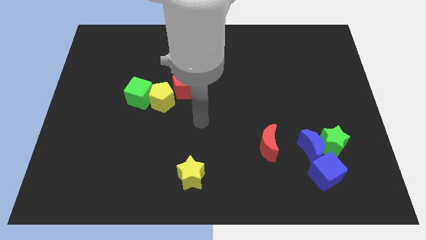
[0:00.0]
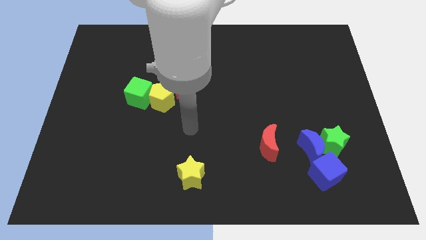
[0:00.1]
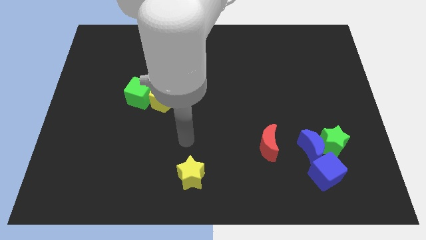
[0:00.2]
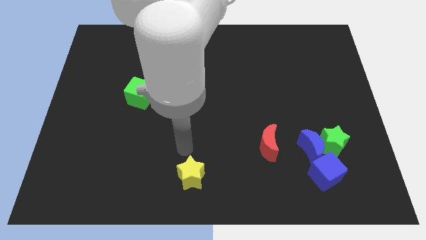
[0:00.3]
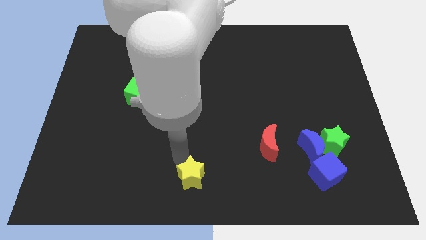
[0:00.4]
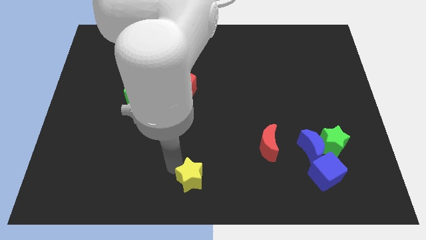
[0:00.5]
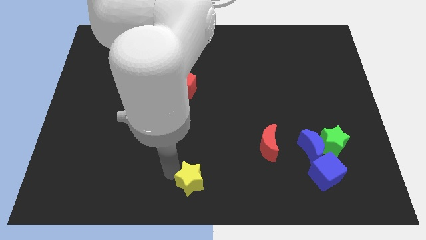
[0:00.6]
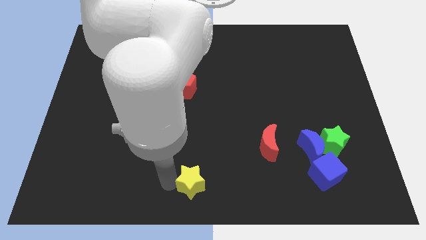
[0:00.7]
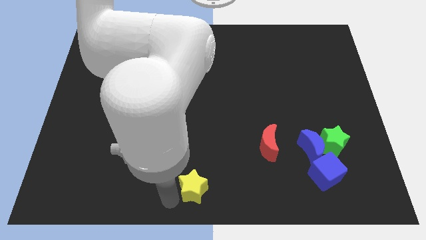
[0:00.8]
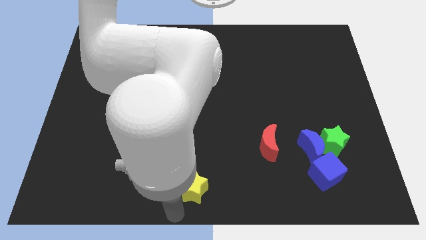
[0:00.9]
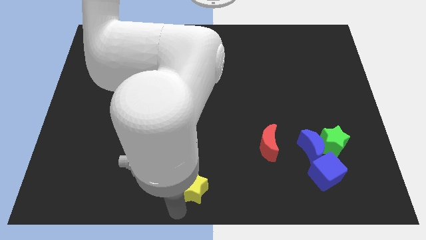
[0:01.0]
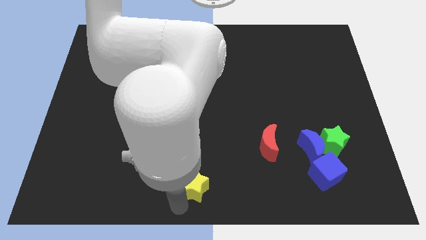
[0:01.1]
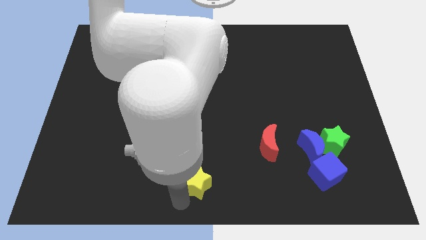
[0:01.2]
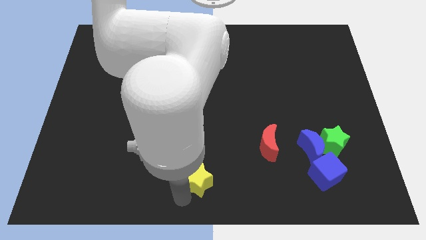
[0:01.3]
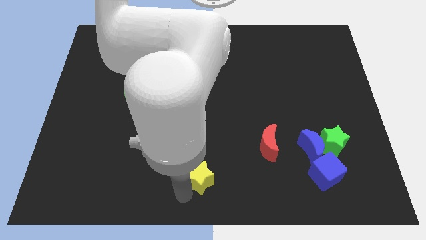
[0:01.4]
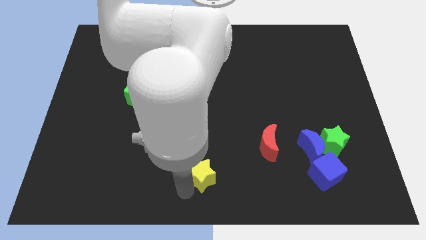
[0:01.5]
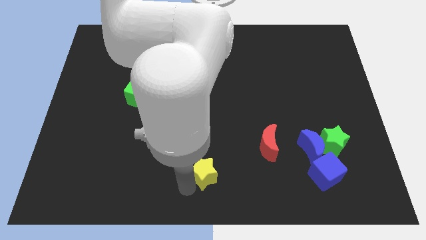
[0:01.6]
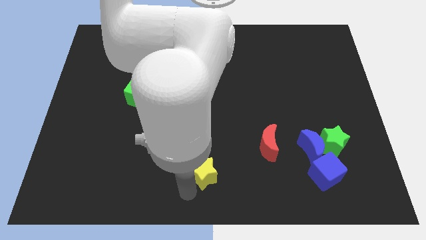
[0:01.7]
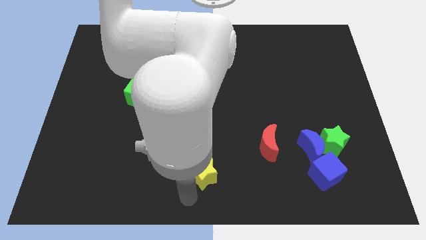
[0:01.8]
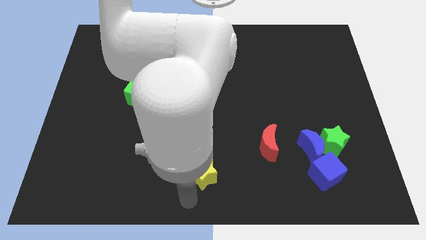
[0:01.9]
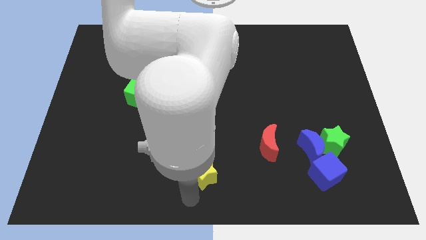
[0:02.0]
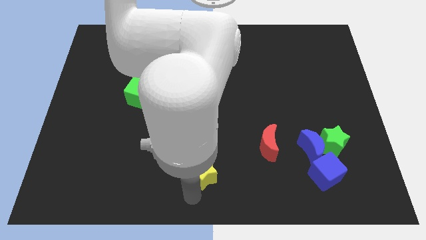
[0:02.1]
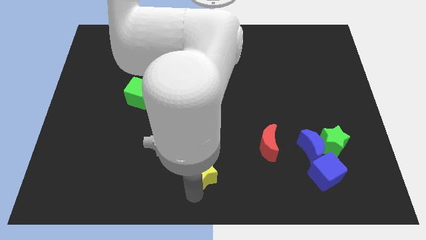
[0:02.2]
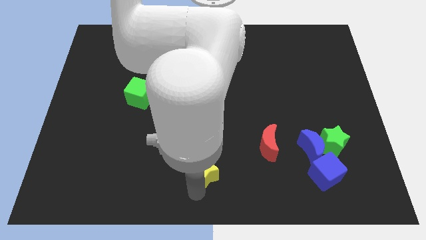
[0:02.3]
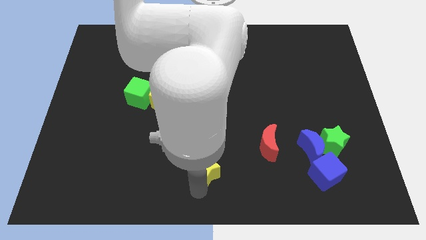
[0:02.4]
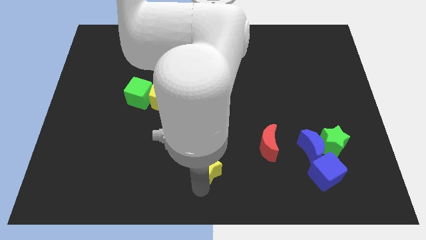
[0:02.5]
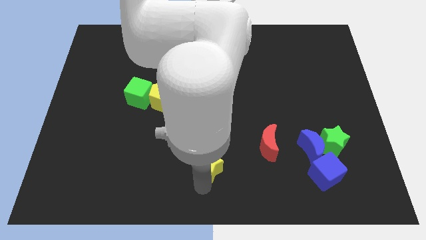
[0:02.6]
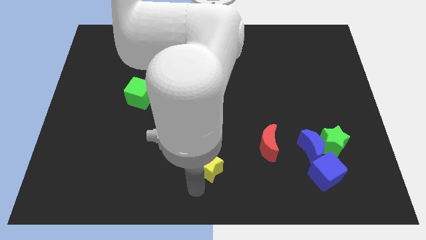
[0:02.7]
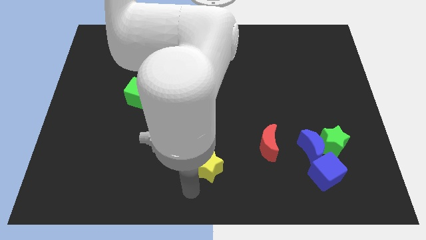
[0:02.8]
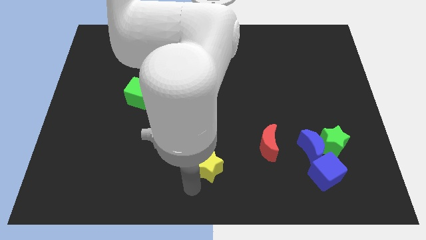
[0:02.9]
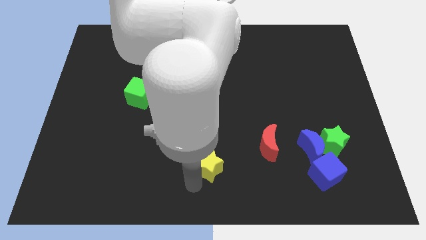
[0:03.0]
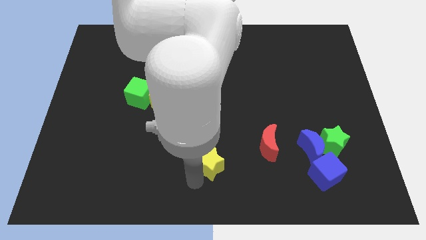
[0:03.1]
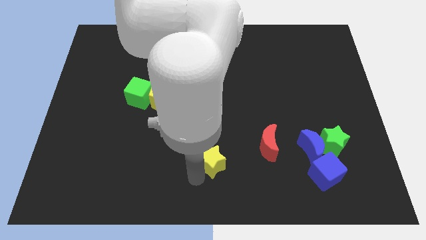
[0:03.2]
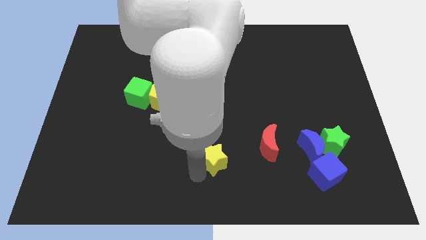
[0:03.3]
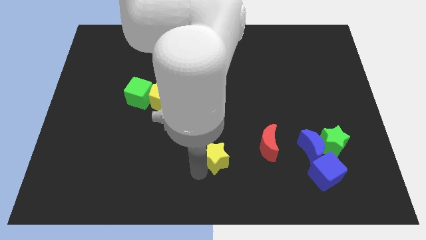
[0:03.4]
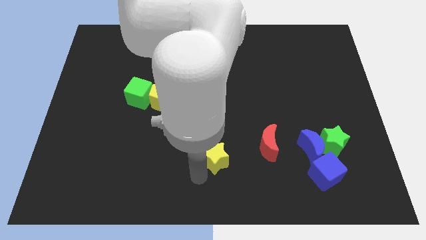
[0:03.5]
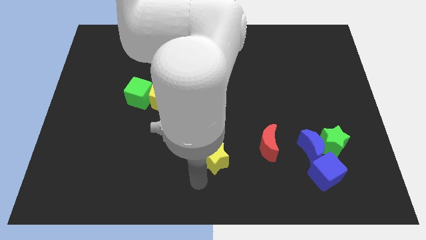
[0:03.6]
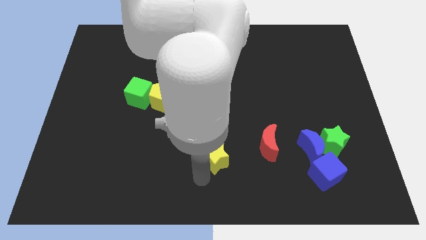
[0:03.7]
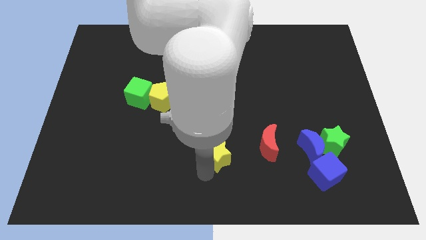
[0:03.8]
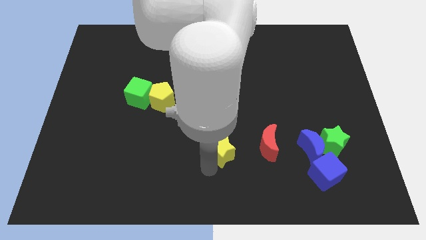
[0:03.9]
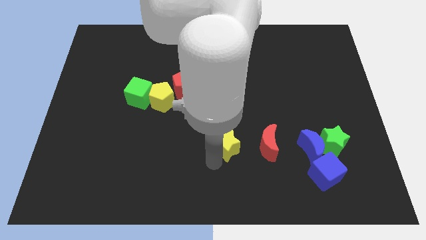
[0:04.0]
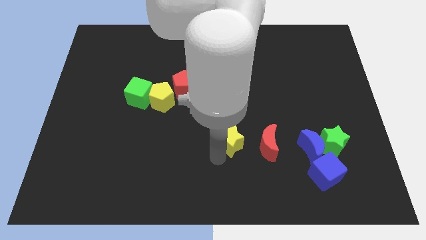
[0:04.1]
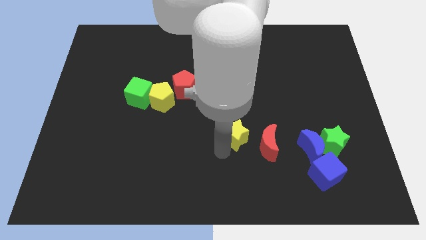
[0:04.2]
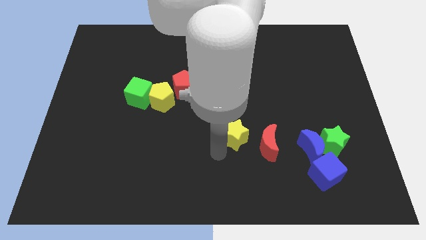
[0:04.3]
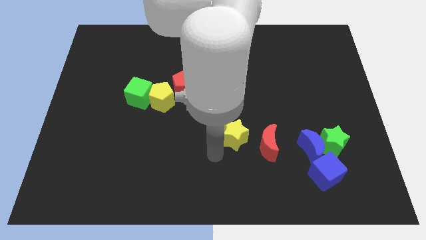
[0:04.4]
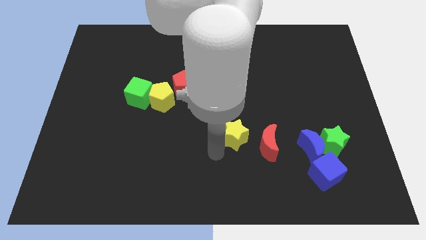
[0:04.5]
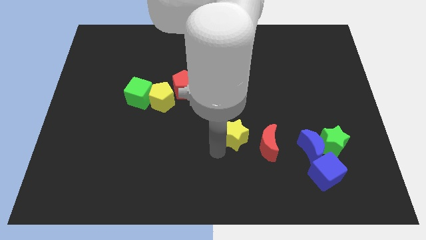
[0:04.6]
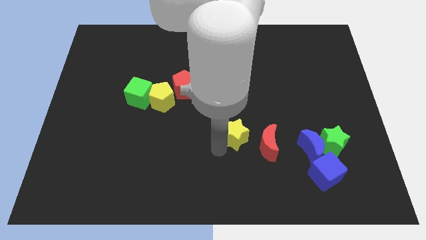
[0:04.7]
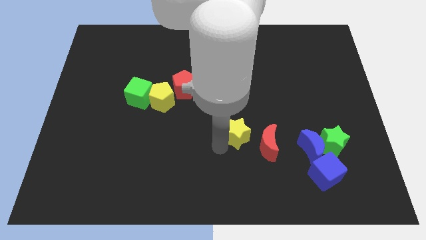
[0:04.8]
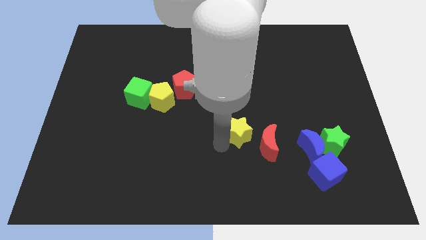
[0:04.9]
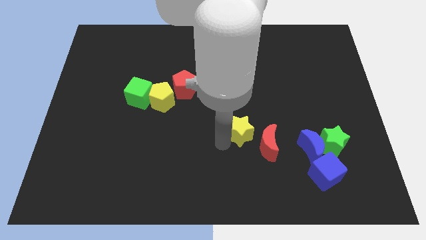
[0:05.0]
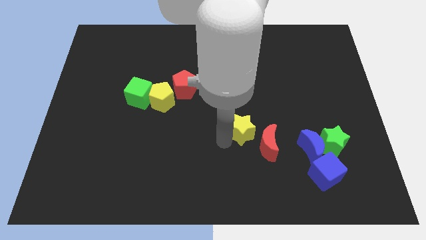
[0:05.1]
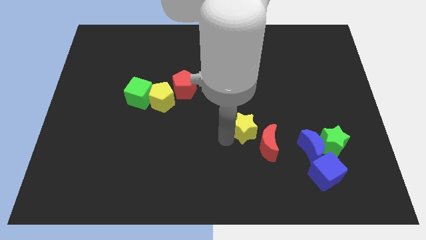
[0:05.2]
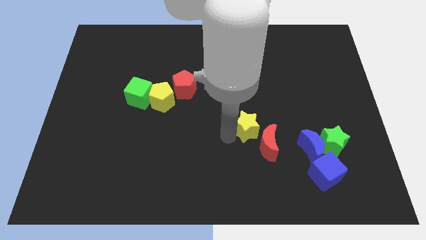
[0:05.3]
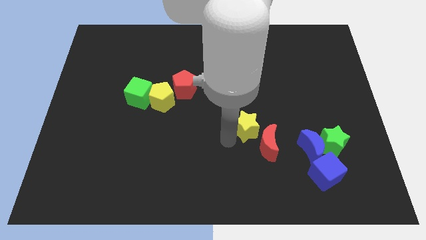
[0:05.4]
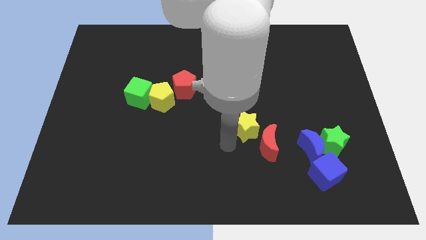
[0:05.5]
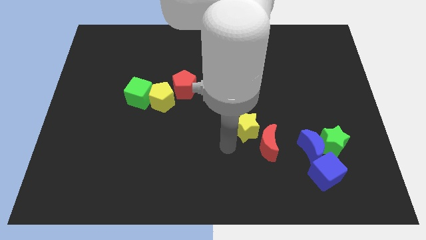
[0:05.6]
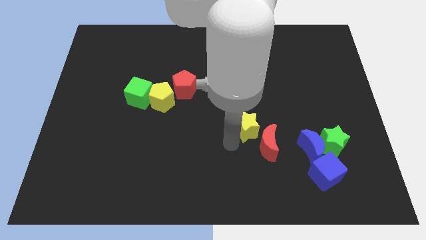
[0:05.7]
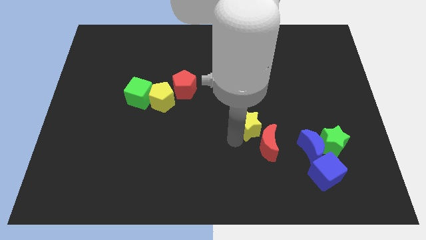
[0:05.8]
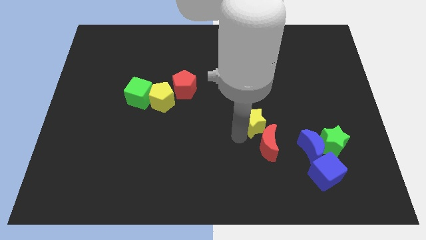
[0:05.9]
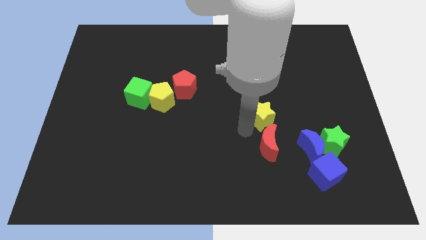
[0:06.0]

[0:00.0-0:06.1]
move the yellow star upwards and to the right diagonally

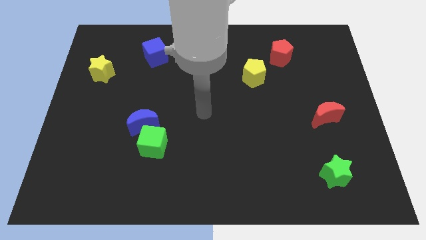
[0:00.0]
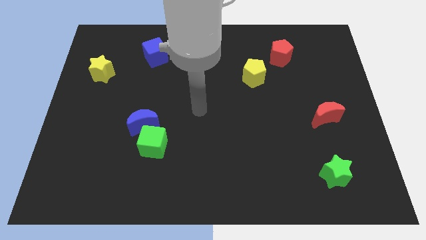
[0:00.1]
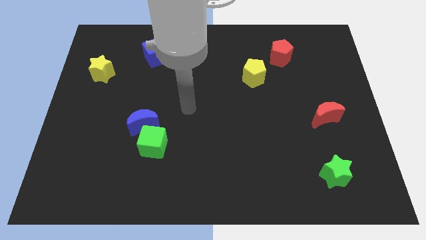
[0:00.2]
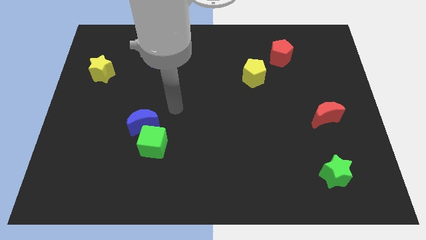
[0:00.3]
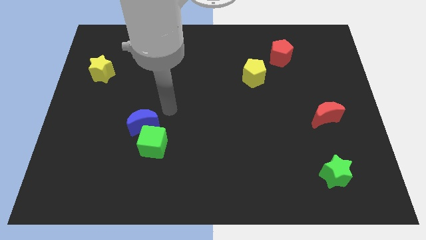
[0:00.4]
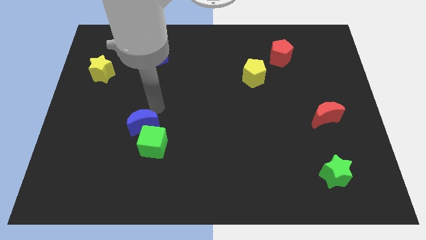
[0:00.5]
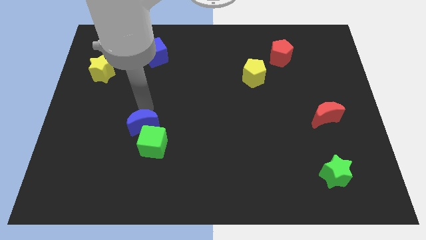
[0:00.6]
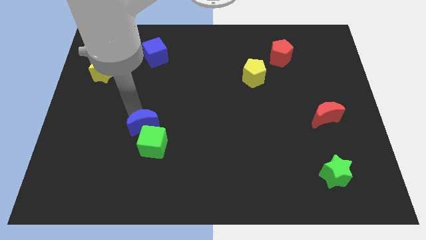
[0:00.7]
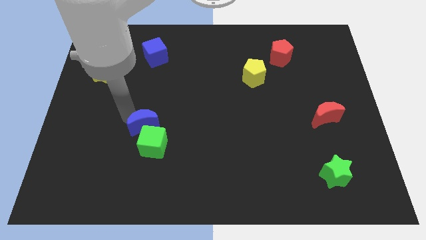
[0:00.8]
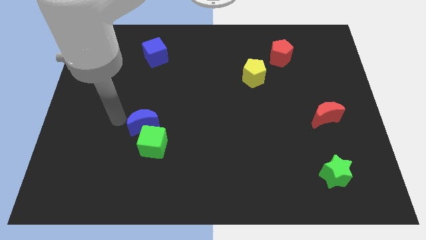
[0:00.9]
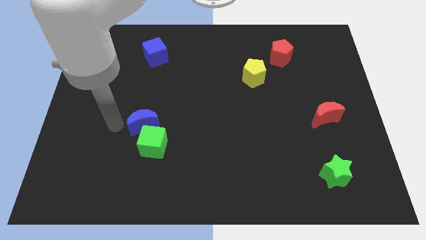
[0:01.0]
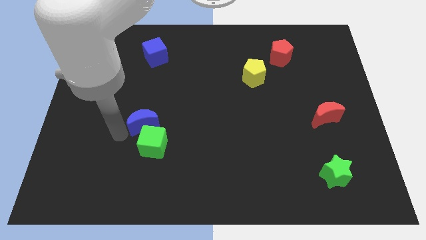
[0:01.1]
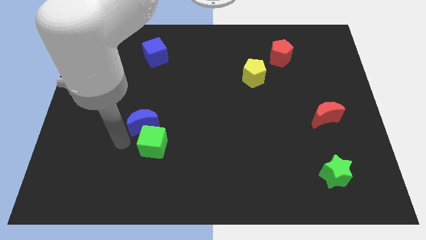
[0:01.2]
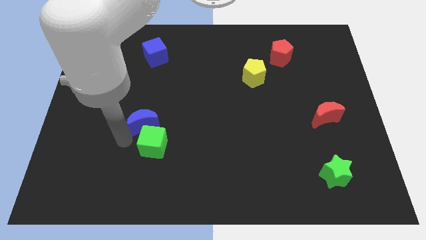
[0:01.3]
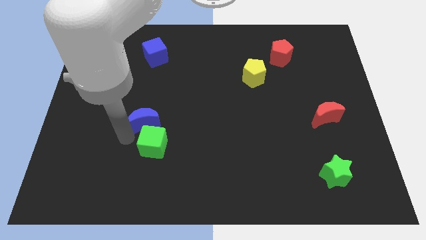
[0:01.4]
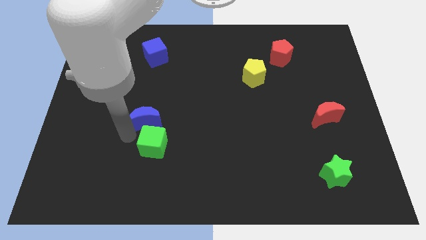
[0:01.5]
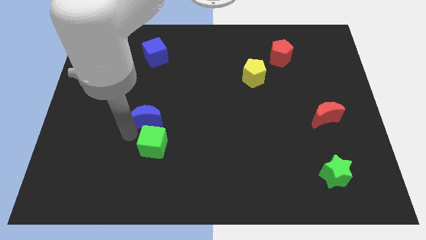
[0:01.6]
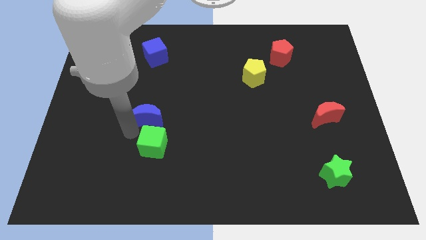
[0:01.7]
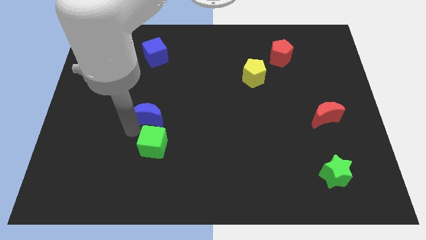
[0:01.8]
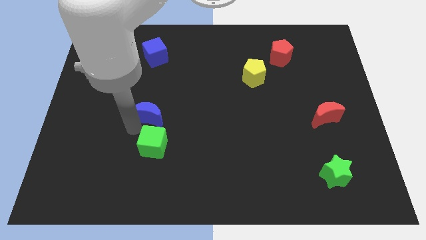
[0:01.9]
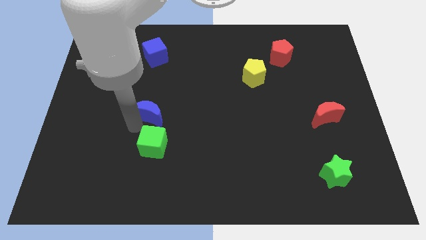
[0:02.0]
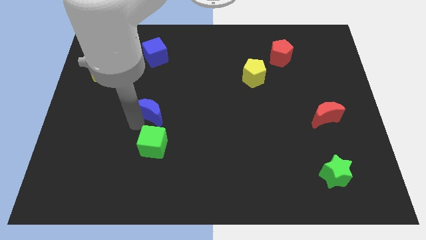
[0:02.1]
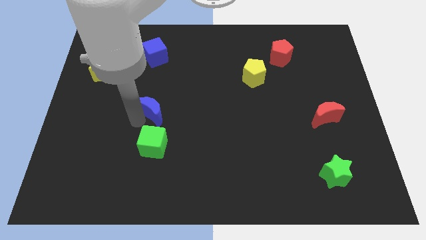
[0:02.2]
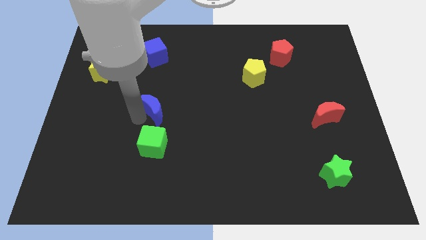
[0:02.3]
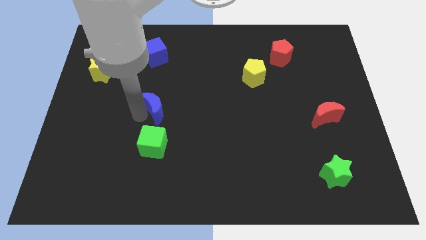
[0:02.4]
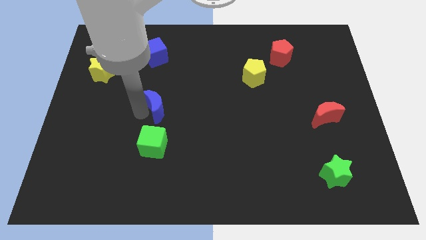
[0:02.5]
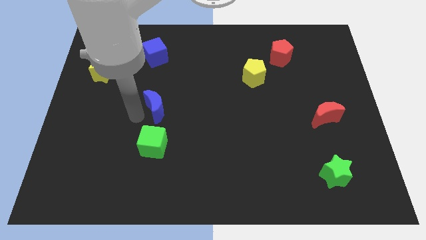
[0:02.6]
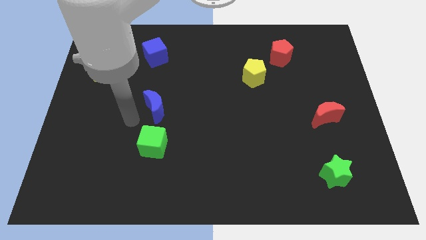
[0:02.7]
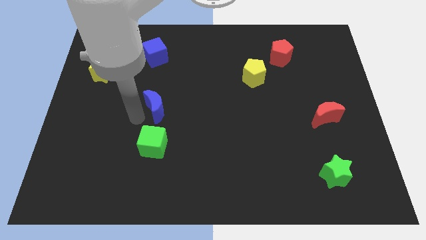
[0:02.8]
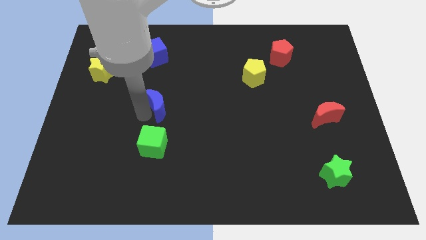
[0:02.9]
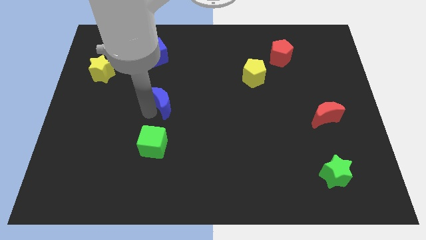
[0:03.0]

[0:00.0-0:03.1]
move the blue moon up and right slightly
